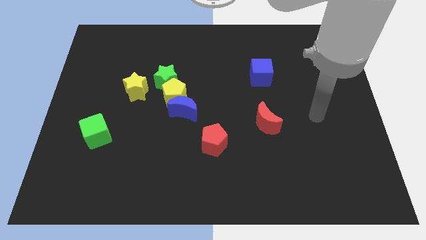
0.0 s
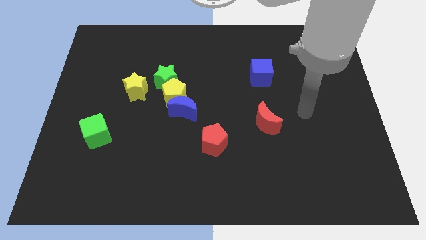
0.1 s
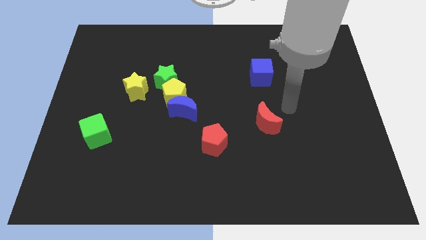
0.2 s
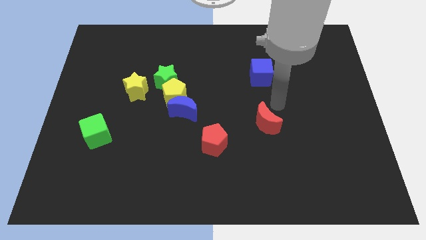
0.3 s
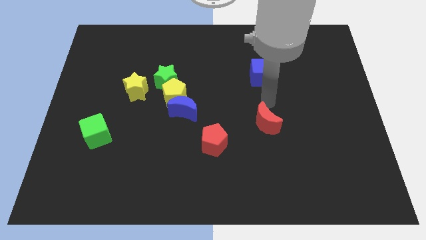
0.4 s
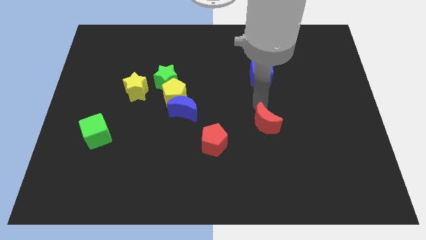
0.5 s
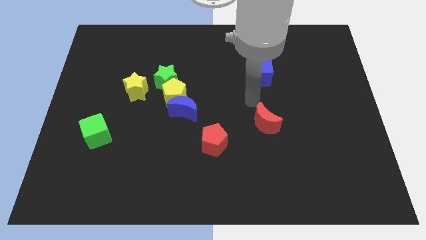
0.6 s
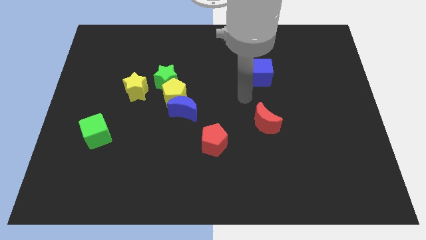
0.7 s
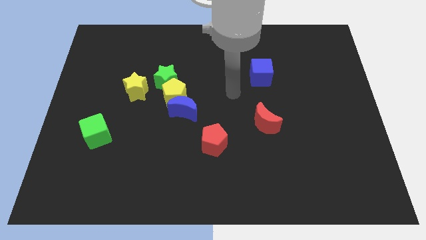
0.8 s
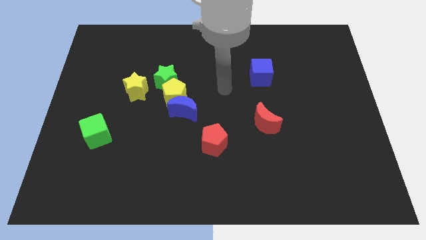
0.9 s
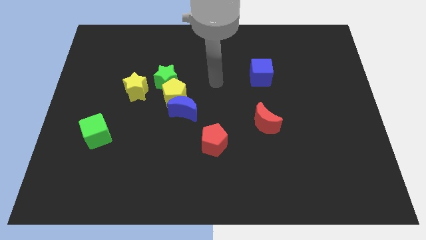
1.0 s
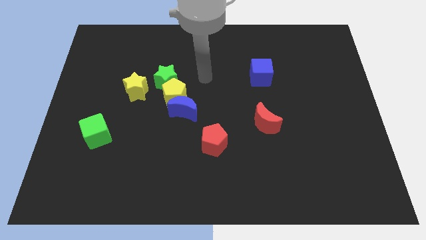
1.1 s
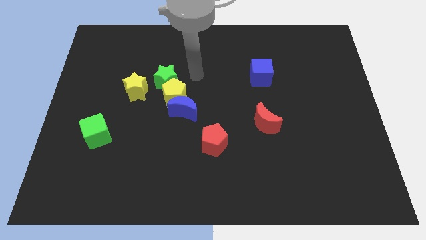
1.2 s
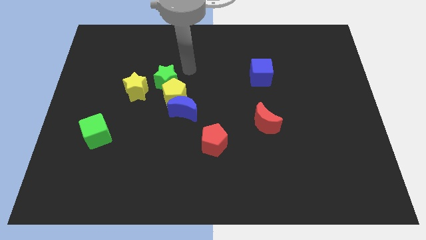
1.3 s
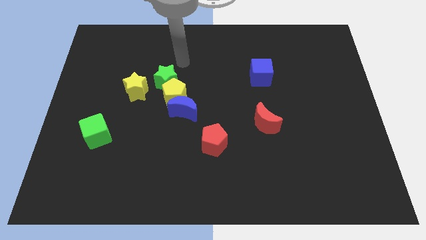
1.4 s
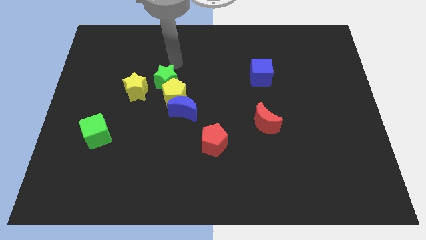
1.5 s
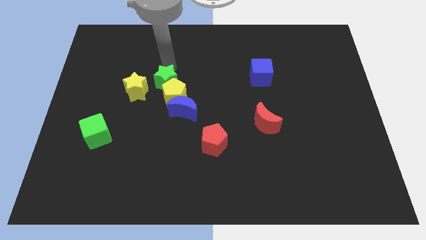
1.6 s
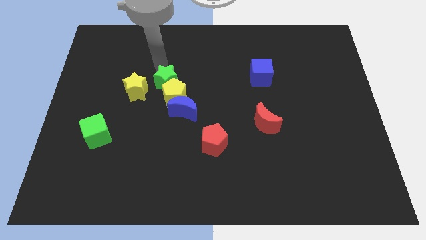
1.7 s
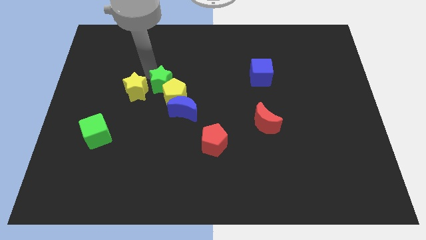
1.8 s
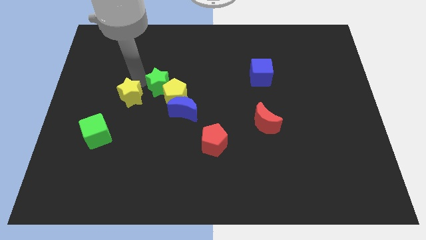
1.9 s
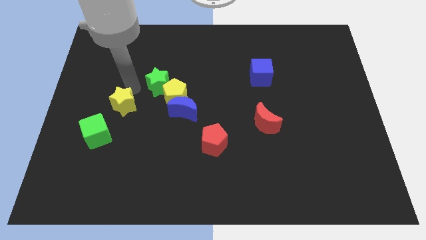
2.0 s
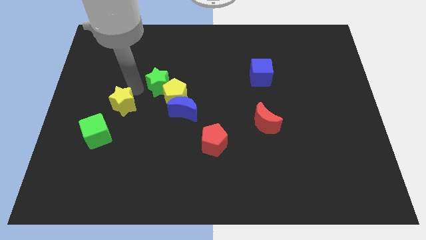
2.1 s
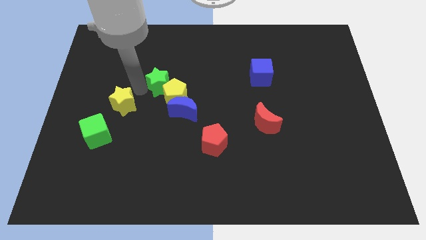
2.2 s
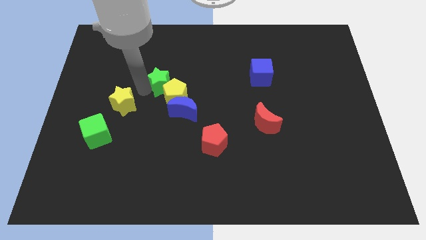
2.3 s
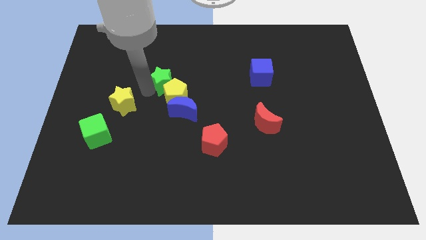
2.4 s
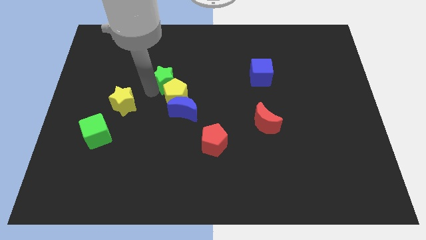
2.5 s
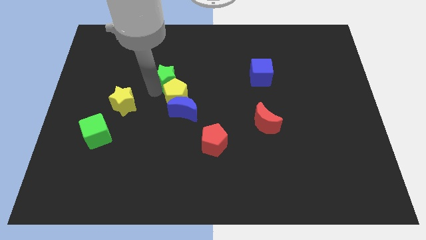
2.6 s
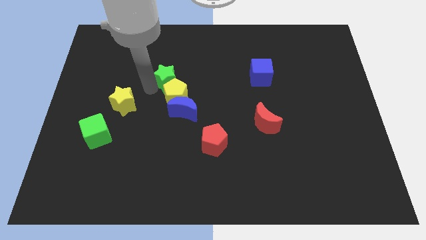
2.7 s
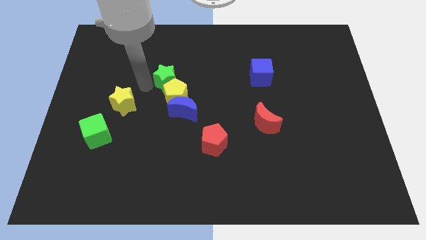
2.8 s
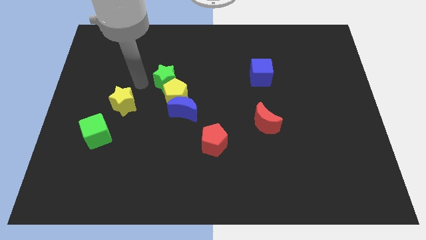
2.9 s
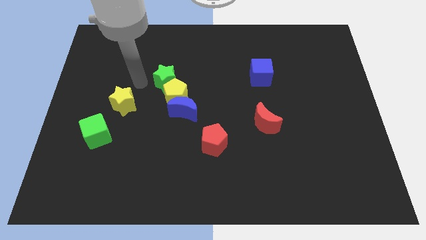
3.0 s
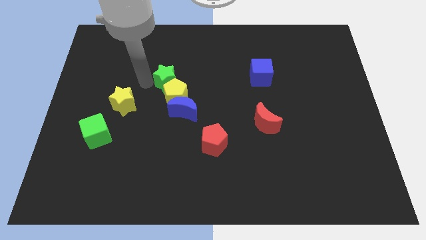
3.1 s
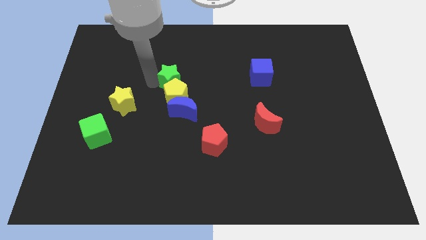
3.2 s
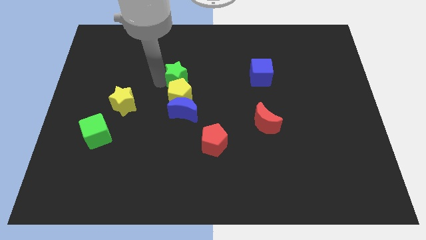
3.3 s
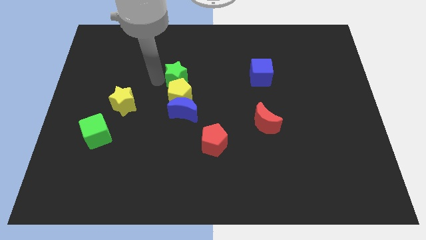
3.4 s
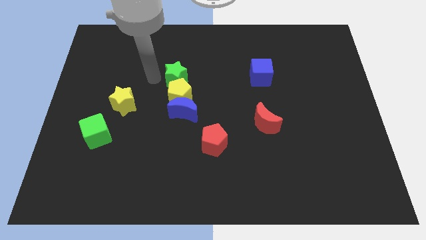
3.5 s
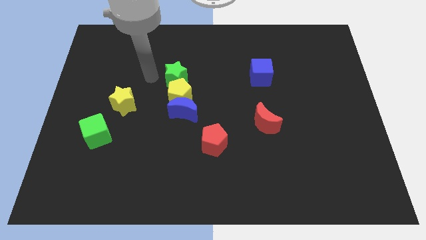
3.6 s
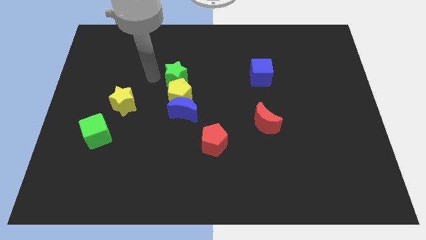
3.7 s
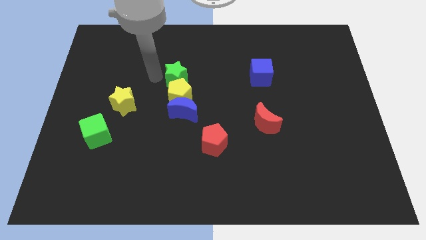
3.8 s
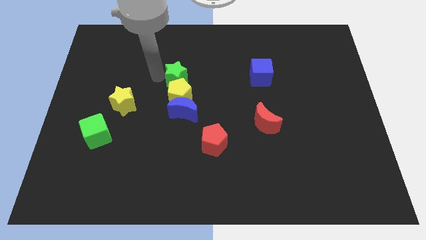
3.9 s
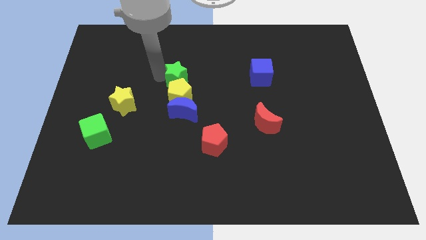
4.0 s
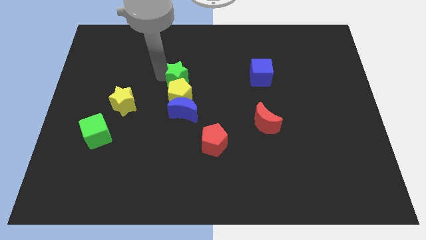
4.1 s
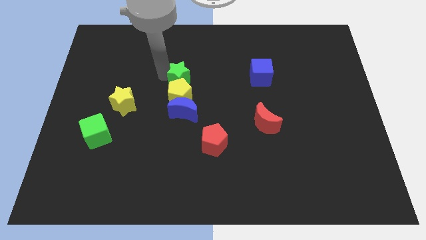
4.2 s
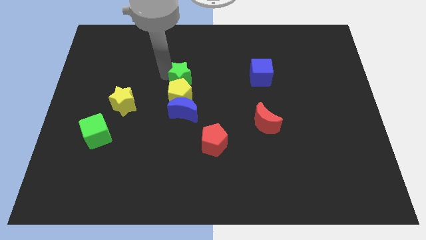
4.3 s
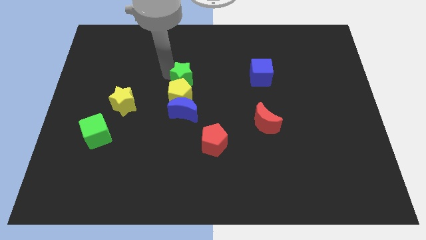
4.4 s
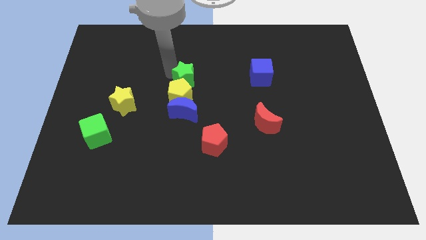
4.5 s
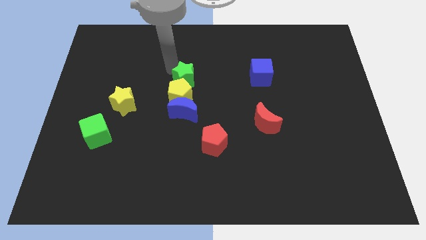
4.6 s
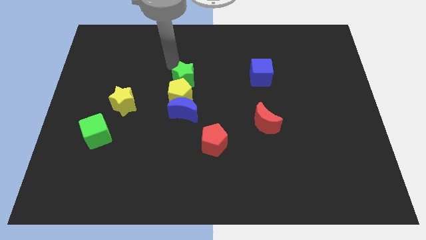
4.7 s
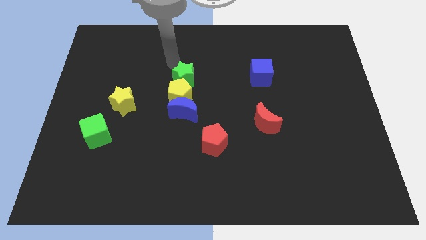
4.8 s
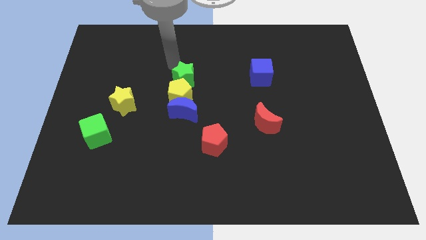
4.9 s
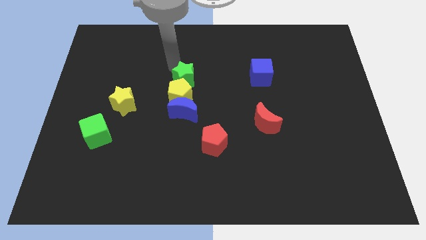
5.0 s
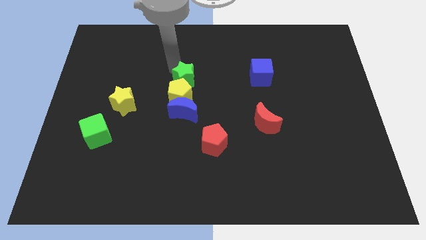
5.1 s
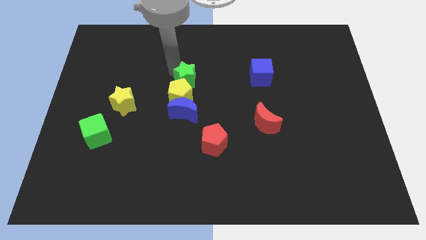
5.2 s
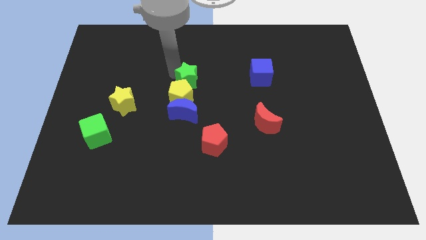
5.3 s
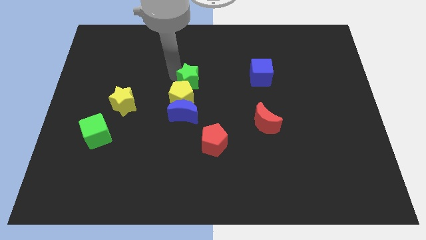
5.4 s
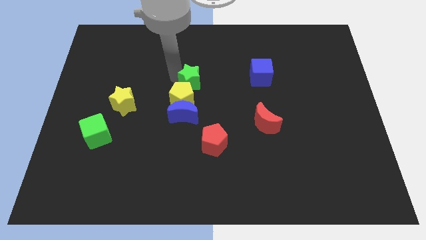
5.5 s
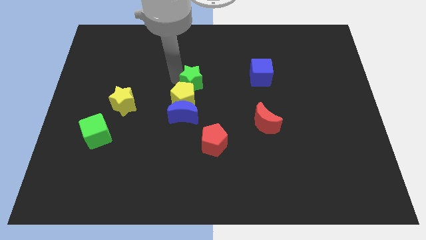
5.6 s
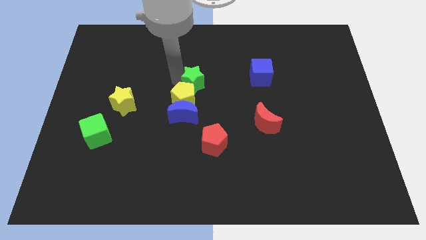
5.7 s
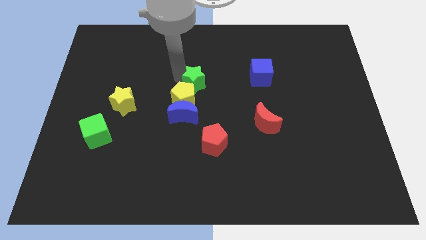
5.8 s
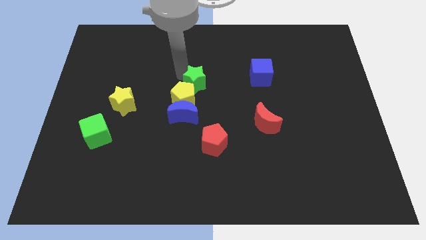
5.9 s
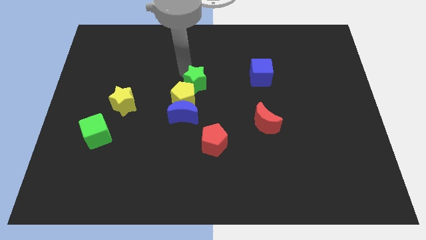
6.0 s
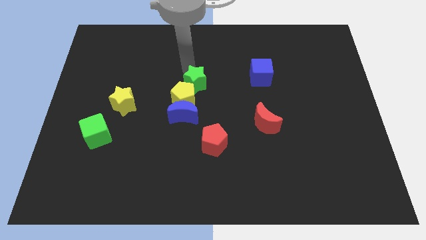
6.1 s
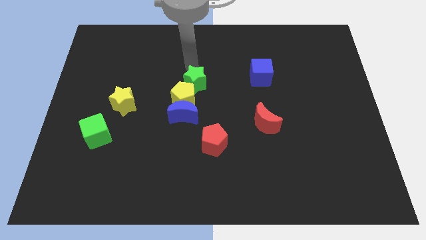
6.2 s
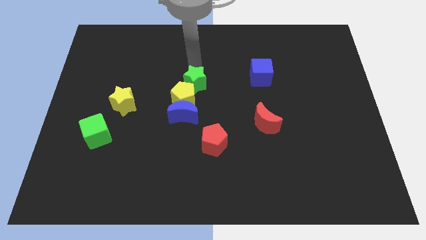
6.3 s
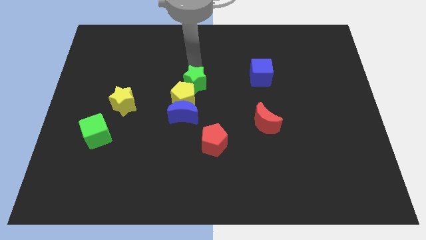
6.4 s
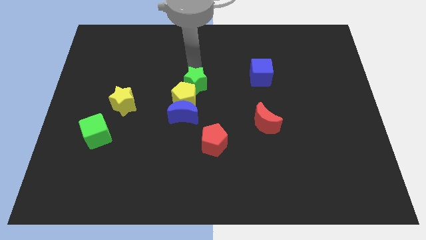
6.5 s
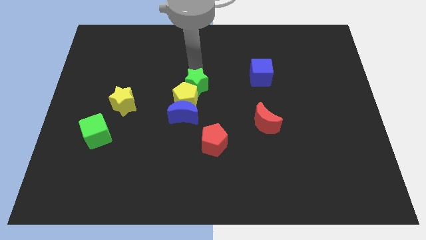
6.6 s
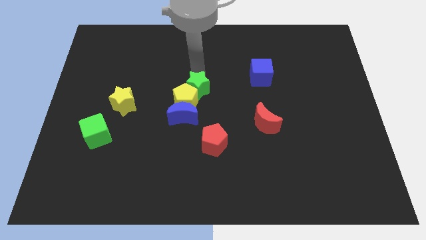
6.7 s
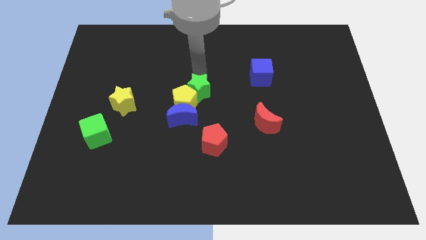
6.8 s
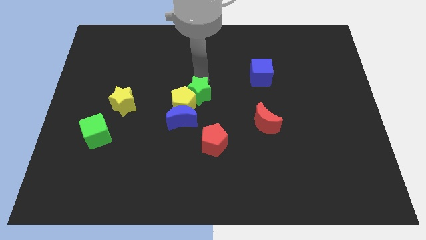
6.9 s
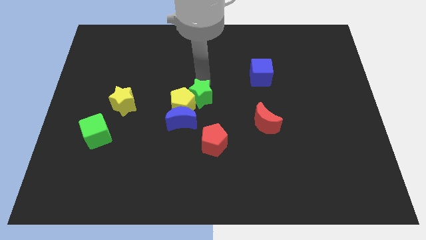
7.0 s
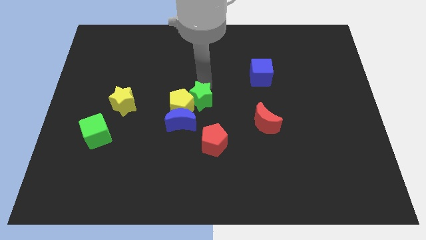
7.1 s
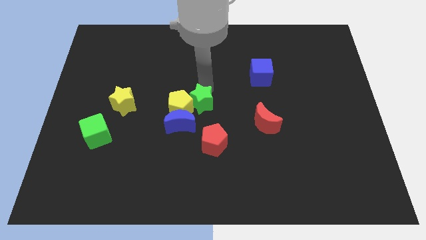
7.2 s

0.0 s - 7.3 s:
move the green star diagonally down and to the right of the yellow pentagon
